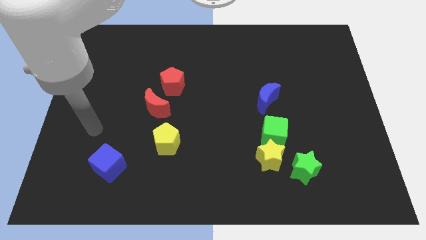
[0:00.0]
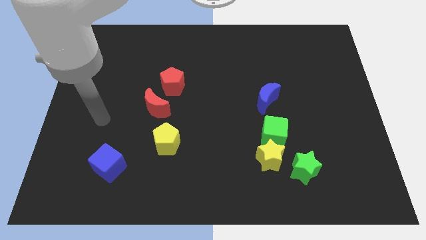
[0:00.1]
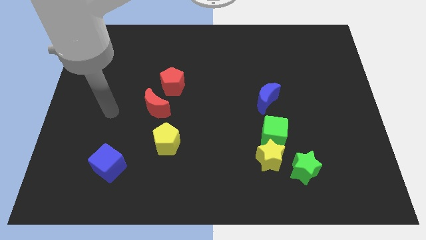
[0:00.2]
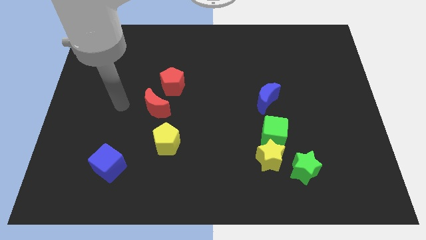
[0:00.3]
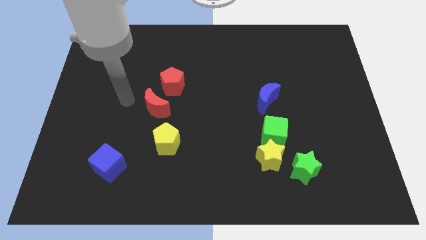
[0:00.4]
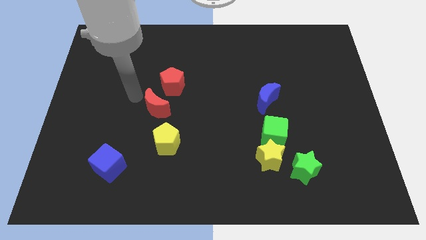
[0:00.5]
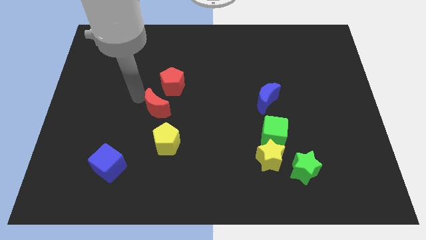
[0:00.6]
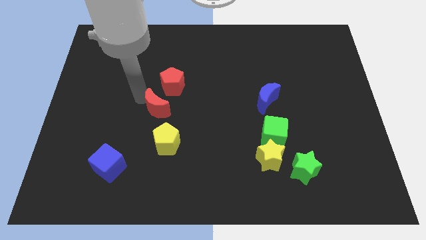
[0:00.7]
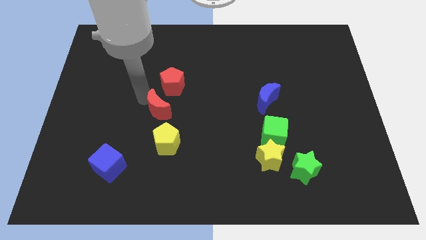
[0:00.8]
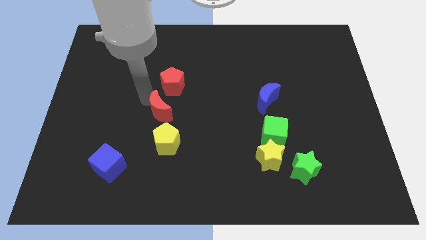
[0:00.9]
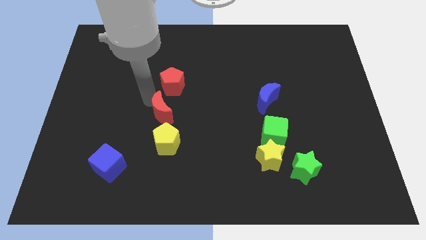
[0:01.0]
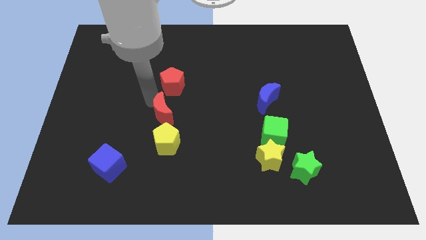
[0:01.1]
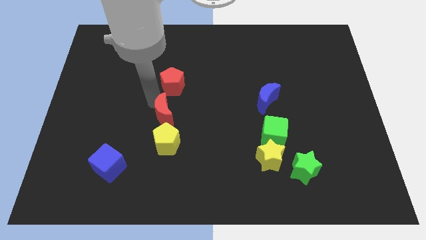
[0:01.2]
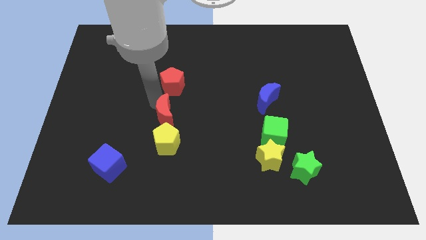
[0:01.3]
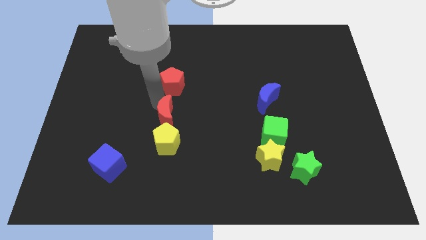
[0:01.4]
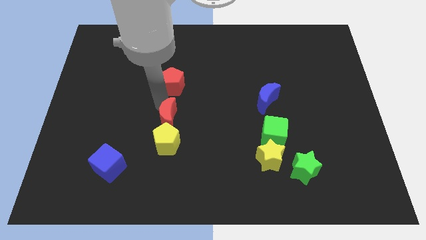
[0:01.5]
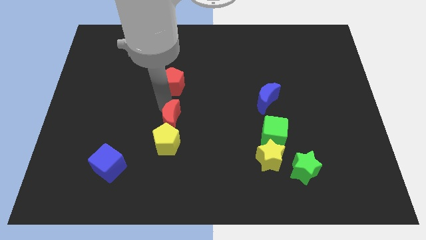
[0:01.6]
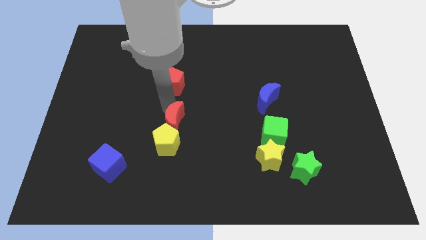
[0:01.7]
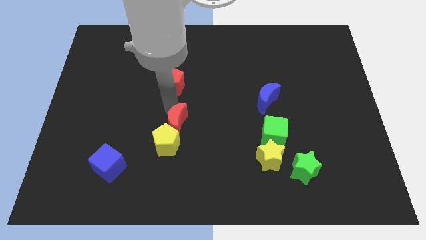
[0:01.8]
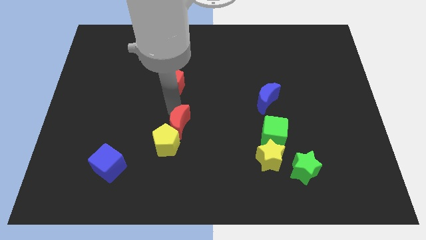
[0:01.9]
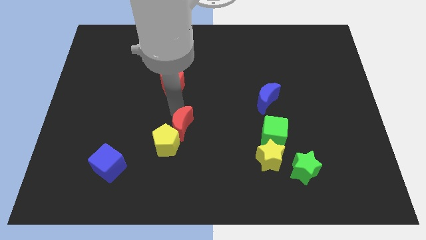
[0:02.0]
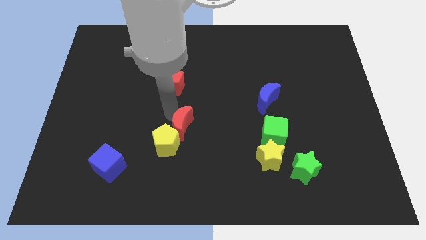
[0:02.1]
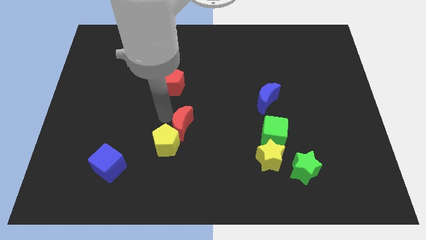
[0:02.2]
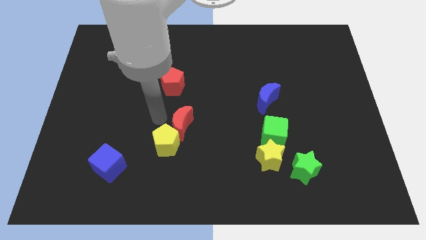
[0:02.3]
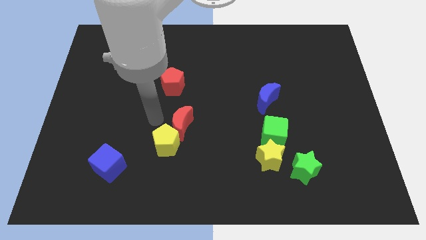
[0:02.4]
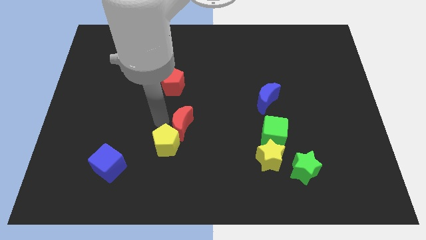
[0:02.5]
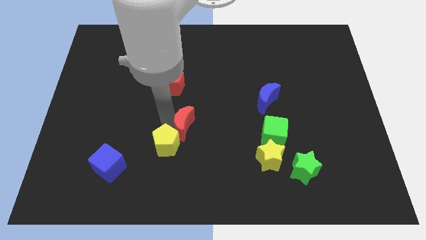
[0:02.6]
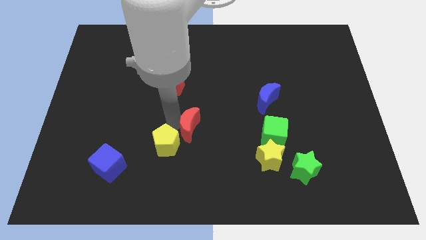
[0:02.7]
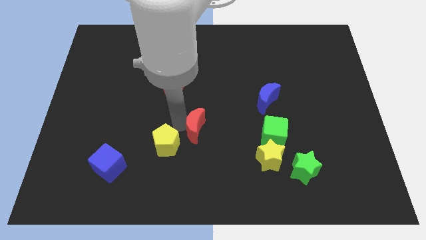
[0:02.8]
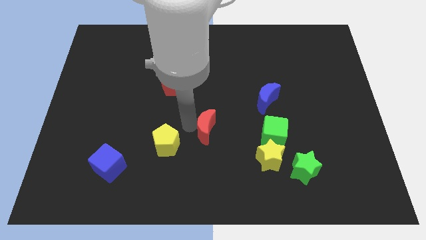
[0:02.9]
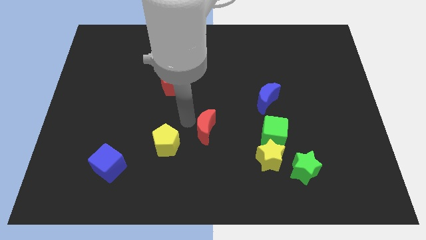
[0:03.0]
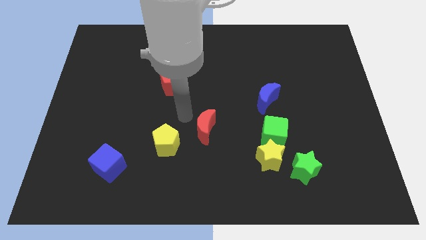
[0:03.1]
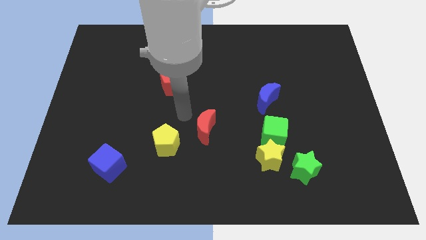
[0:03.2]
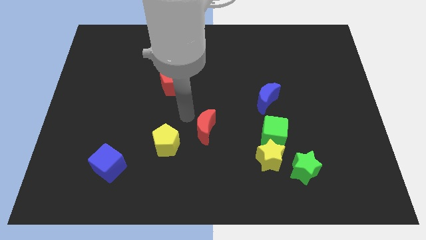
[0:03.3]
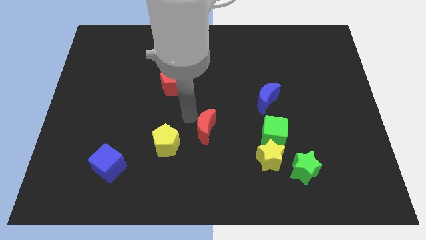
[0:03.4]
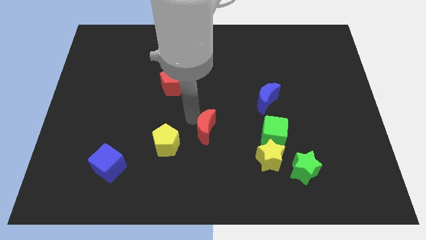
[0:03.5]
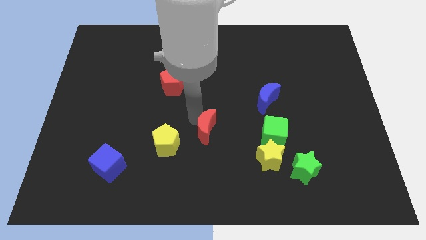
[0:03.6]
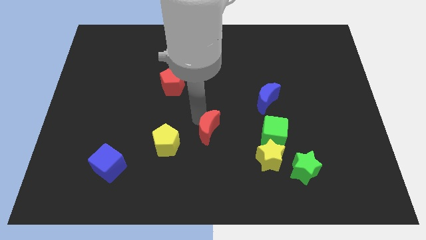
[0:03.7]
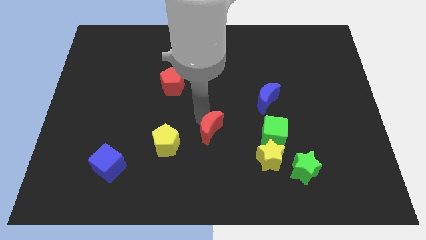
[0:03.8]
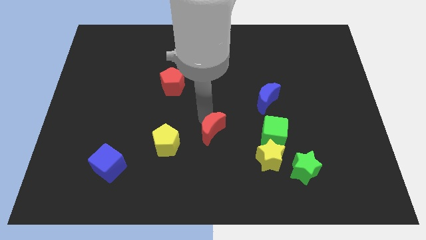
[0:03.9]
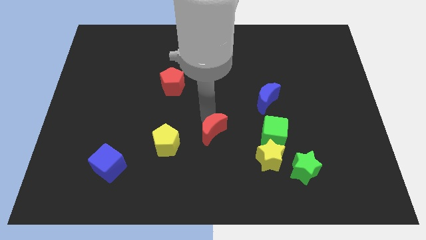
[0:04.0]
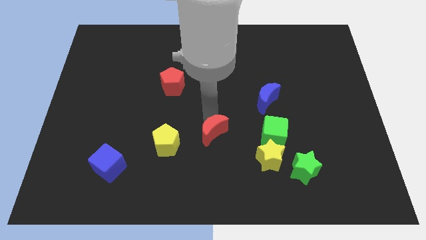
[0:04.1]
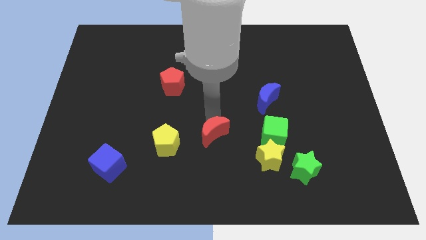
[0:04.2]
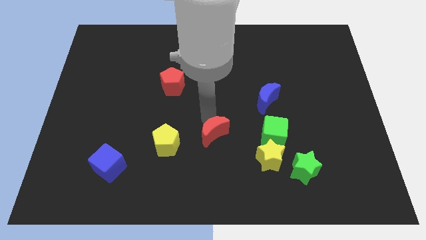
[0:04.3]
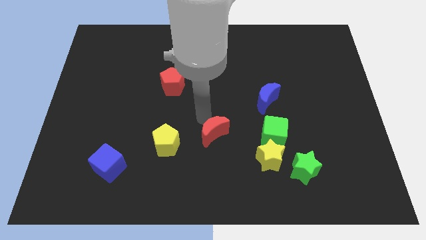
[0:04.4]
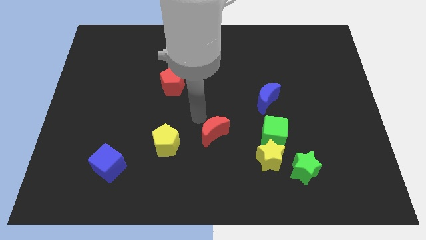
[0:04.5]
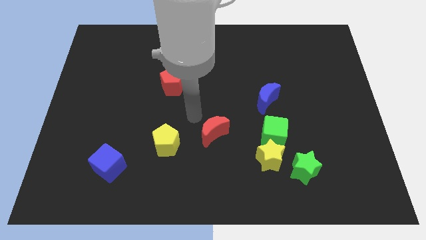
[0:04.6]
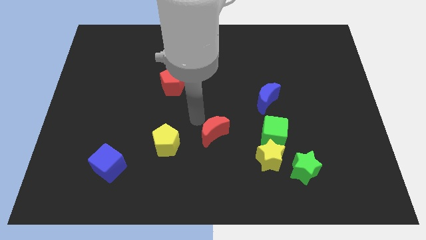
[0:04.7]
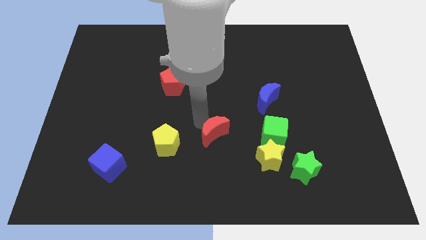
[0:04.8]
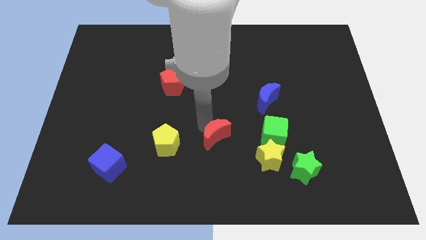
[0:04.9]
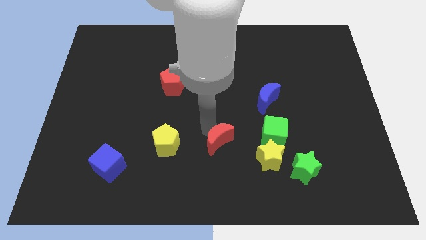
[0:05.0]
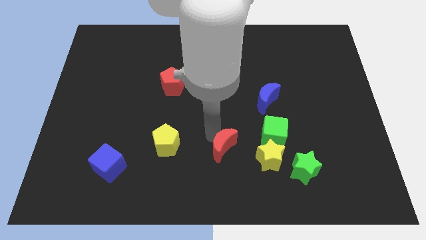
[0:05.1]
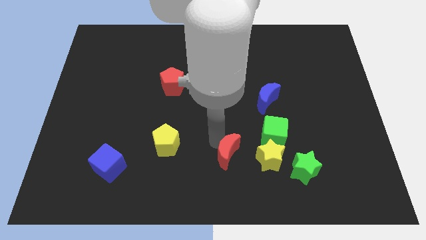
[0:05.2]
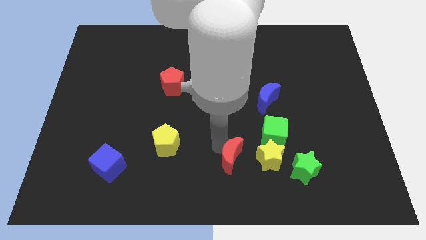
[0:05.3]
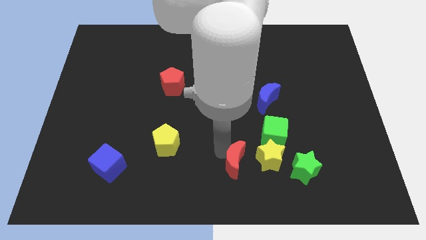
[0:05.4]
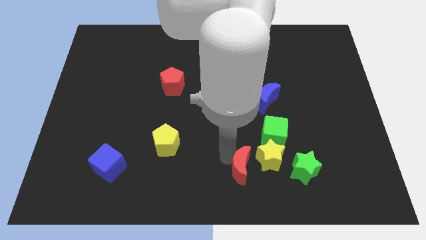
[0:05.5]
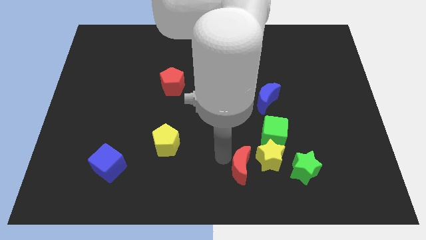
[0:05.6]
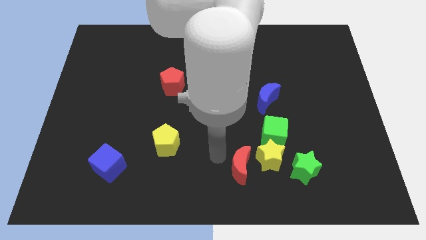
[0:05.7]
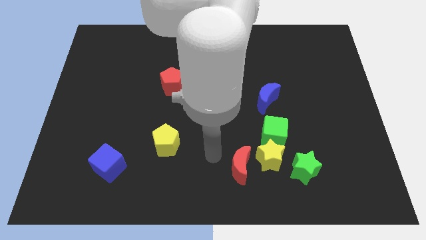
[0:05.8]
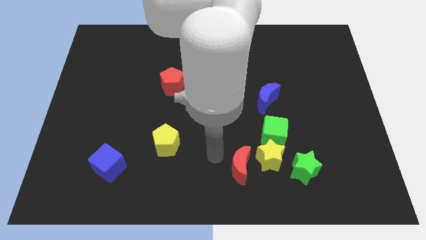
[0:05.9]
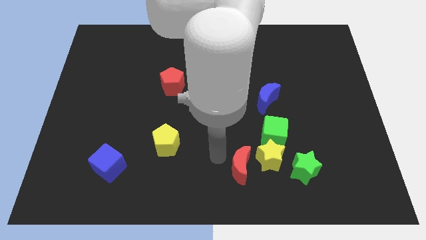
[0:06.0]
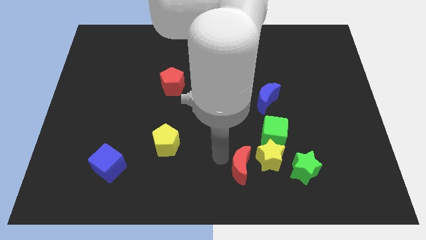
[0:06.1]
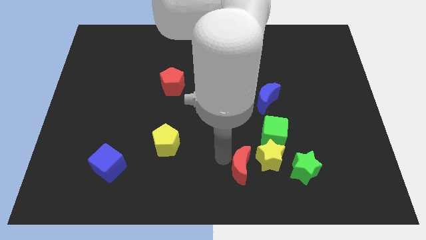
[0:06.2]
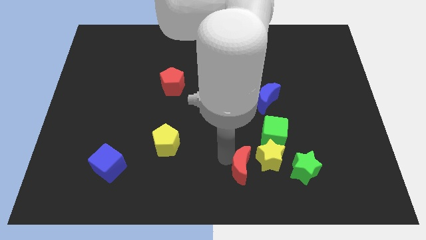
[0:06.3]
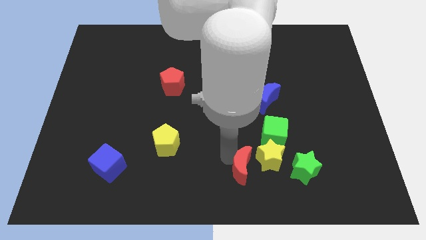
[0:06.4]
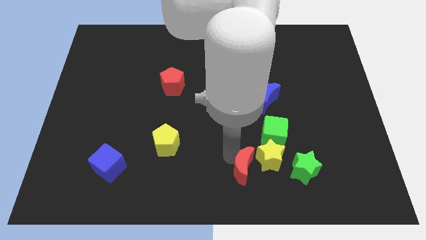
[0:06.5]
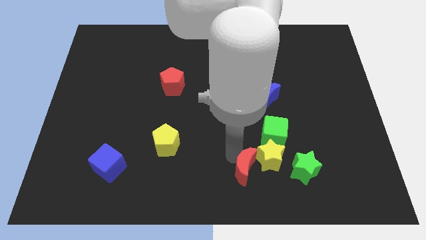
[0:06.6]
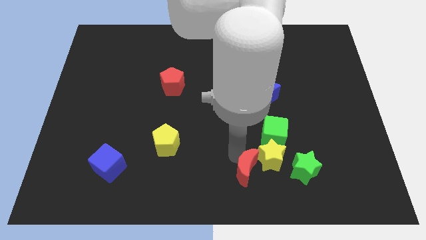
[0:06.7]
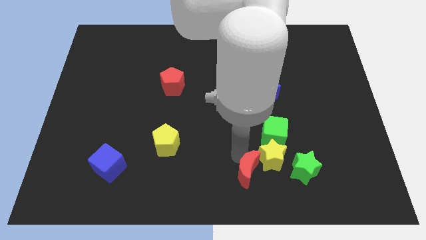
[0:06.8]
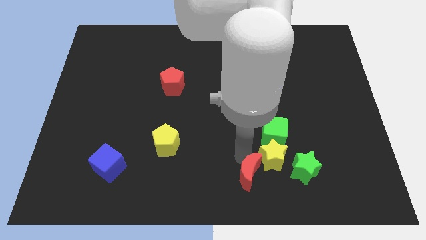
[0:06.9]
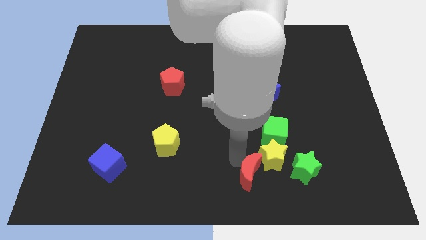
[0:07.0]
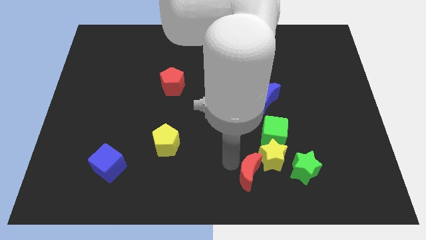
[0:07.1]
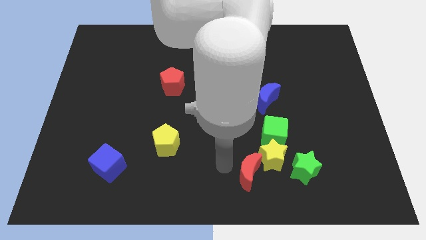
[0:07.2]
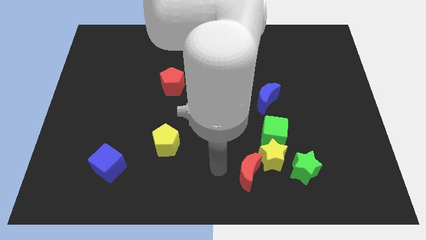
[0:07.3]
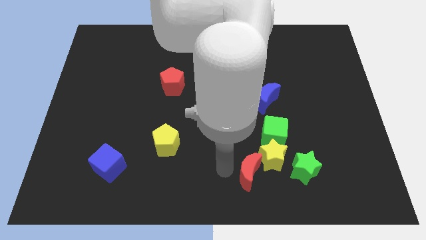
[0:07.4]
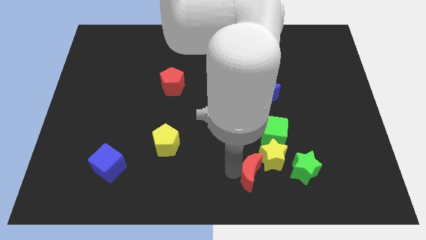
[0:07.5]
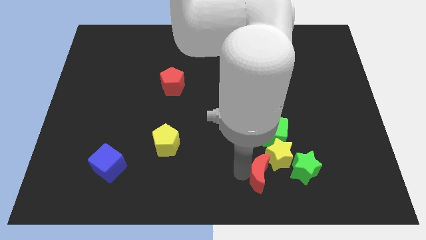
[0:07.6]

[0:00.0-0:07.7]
slide the red moon to the bottom side of the green cube

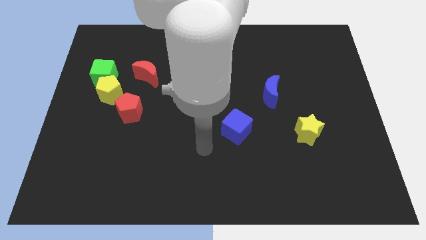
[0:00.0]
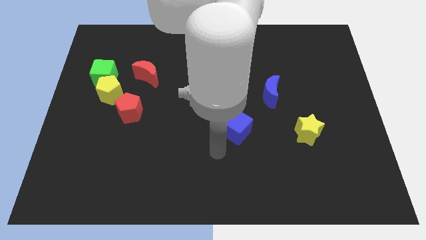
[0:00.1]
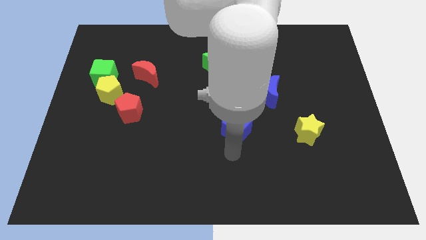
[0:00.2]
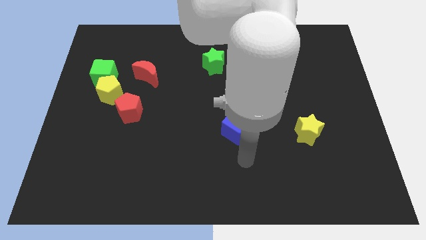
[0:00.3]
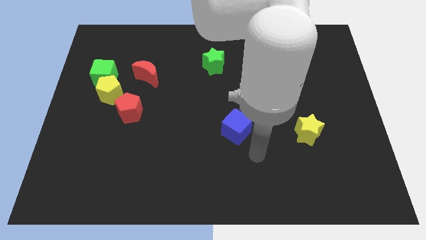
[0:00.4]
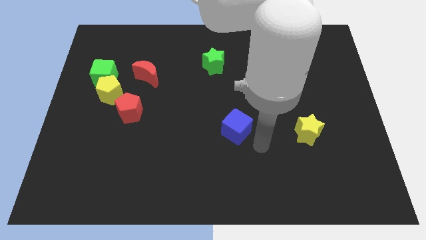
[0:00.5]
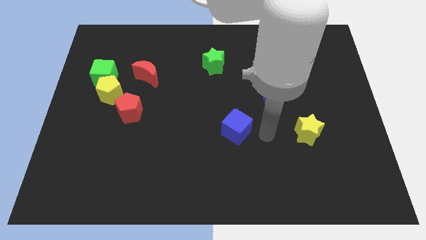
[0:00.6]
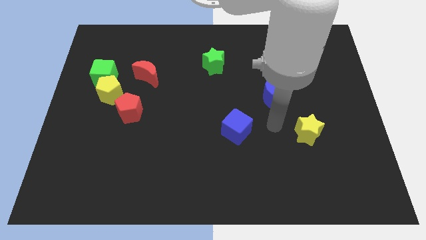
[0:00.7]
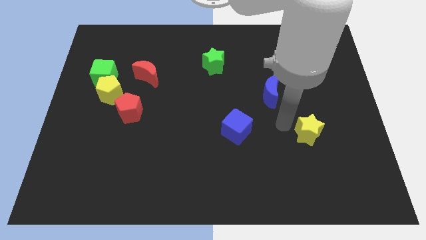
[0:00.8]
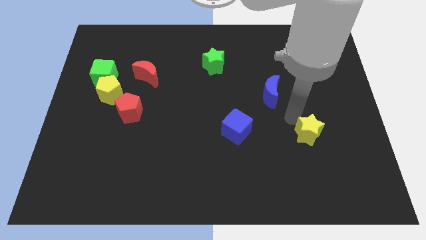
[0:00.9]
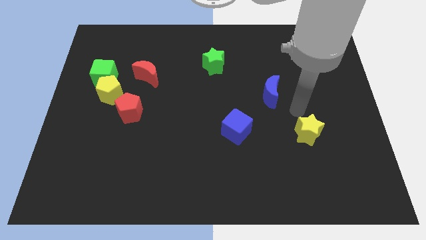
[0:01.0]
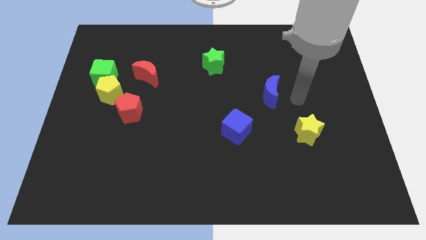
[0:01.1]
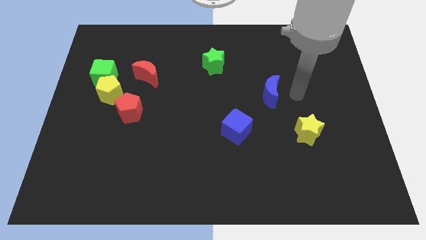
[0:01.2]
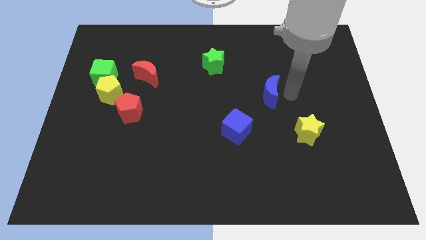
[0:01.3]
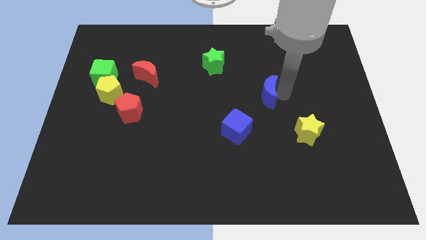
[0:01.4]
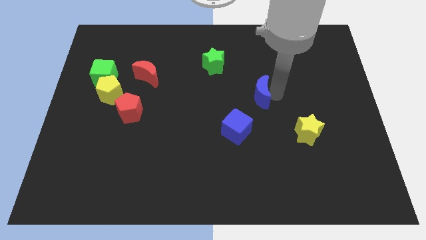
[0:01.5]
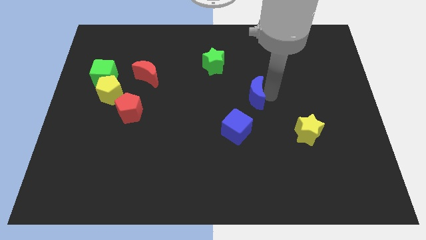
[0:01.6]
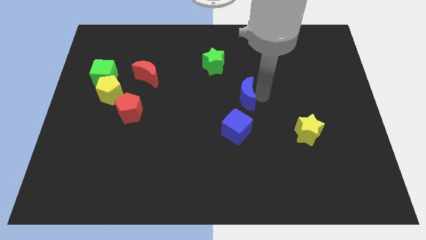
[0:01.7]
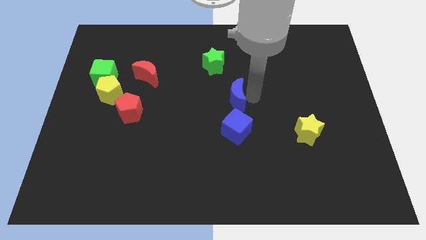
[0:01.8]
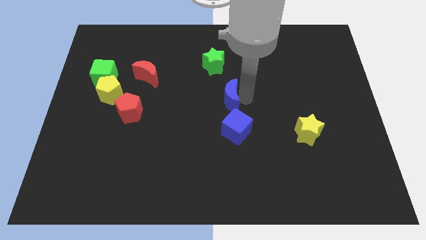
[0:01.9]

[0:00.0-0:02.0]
put the blue moon to the bottom side of the green star
